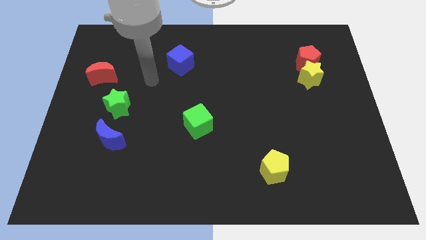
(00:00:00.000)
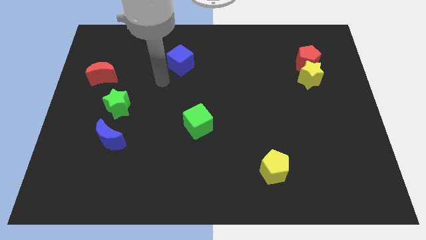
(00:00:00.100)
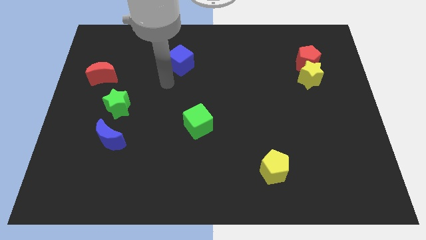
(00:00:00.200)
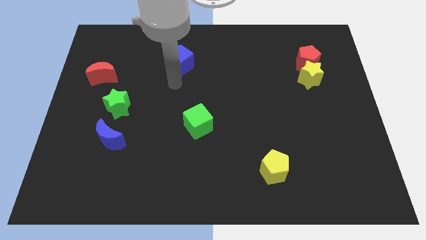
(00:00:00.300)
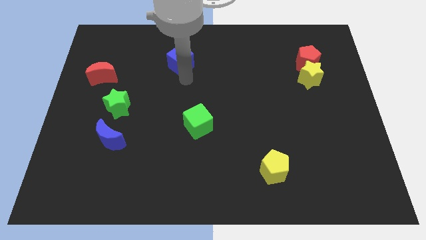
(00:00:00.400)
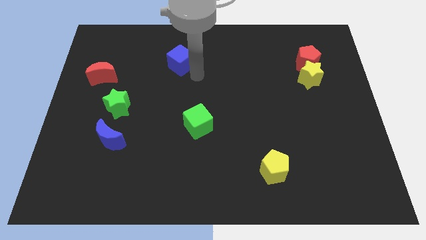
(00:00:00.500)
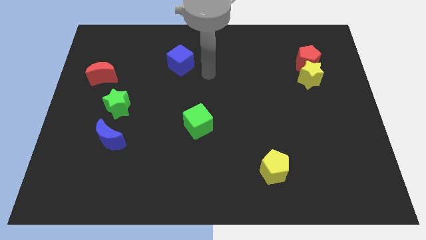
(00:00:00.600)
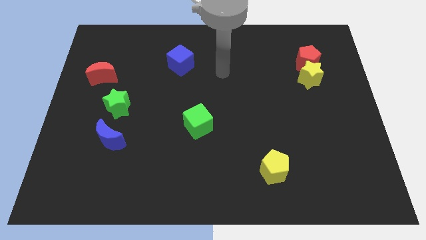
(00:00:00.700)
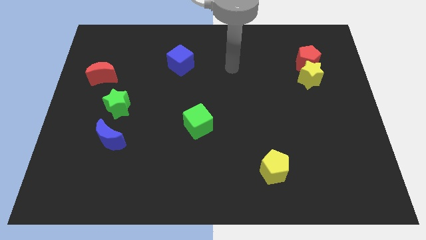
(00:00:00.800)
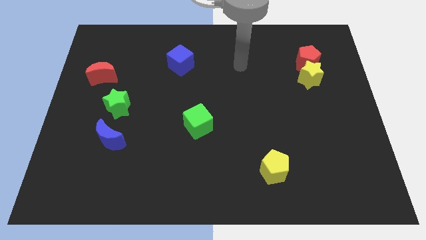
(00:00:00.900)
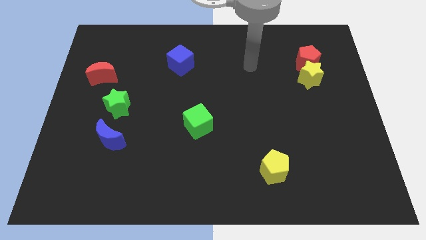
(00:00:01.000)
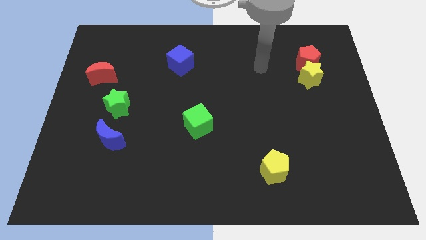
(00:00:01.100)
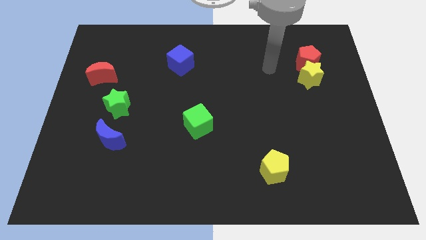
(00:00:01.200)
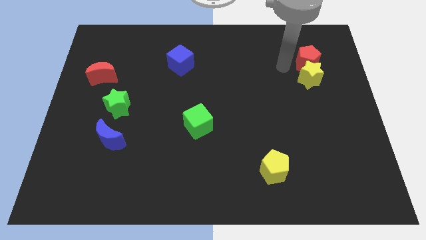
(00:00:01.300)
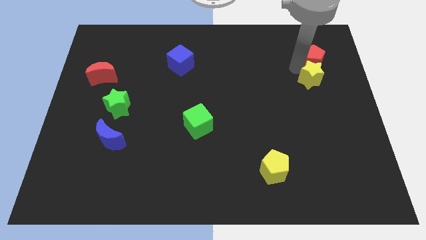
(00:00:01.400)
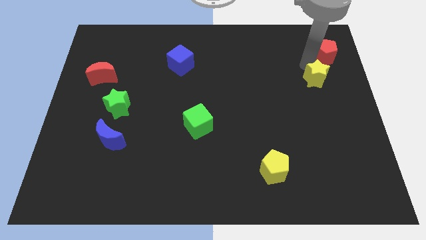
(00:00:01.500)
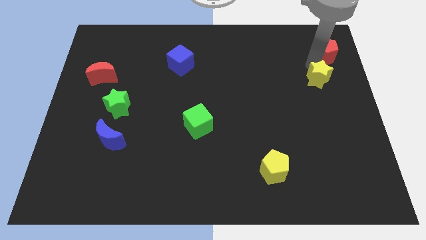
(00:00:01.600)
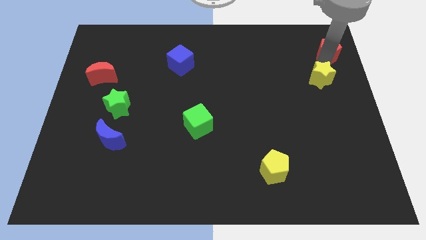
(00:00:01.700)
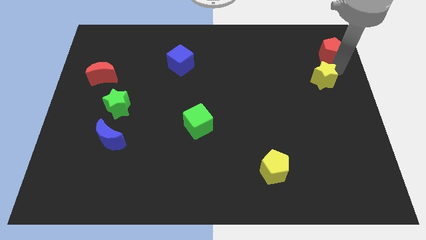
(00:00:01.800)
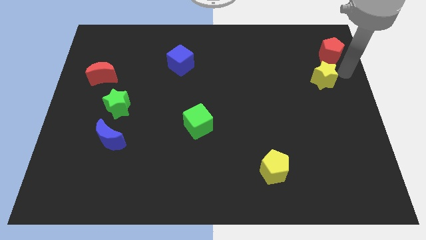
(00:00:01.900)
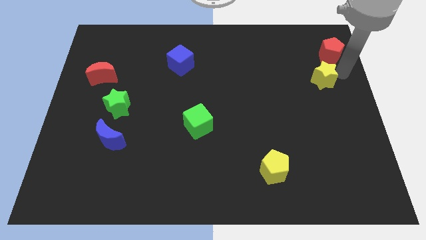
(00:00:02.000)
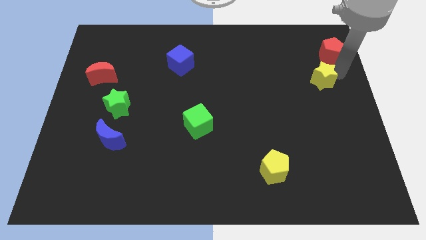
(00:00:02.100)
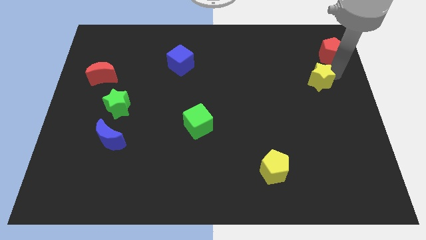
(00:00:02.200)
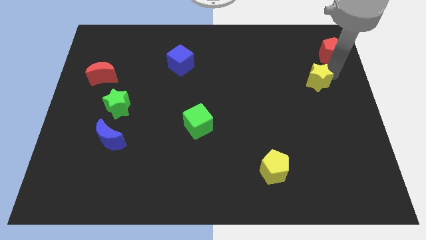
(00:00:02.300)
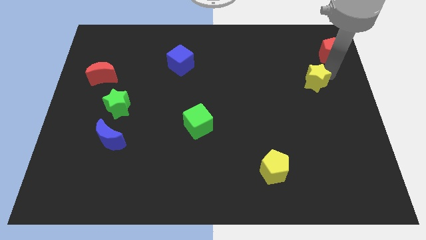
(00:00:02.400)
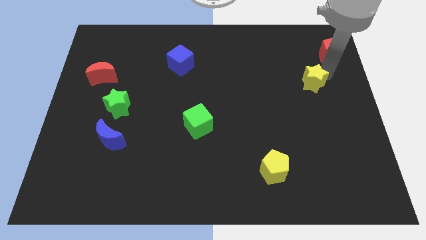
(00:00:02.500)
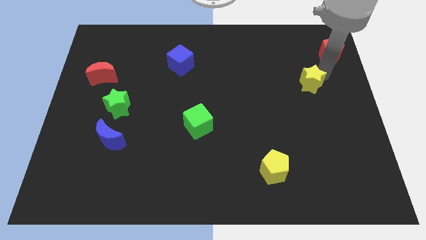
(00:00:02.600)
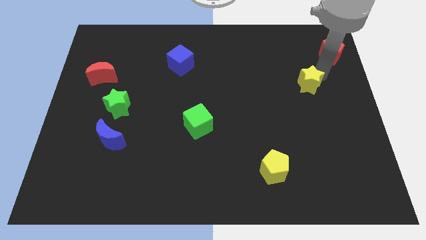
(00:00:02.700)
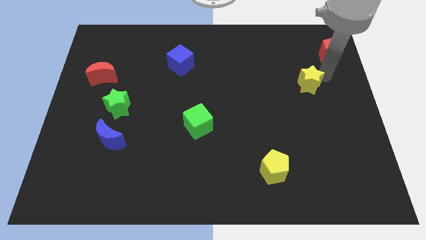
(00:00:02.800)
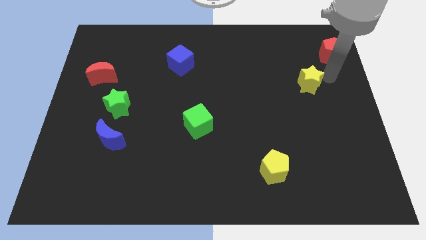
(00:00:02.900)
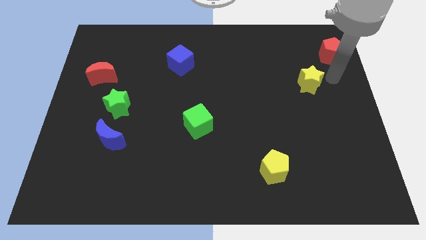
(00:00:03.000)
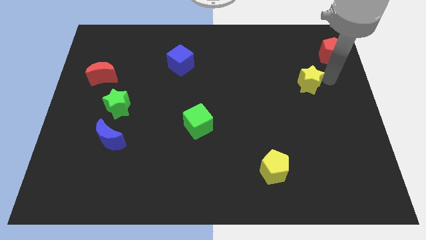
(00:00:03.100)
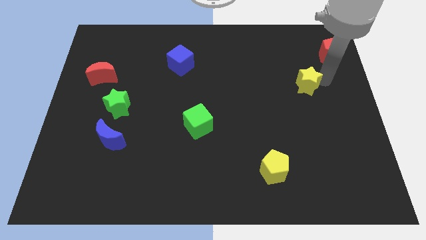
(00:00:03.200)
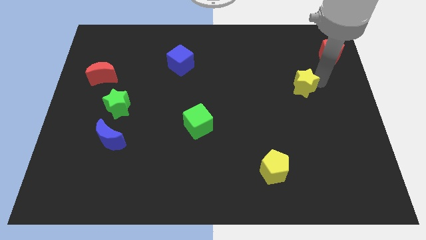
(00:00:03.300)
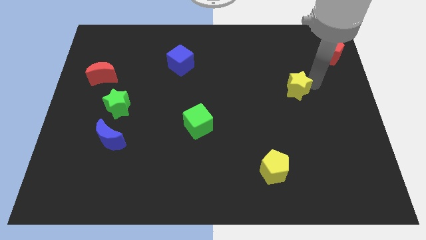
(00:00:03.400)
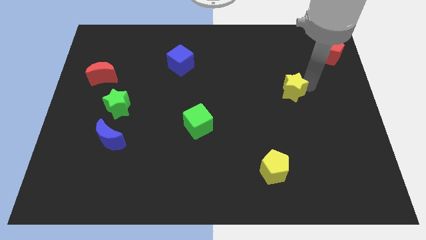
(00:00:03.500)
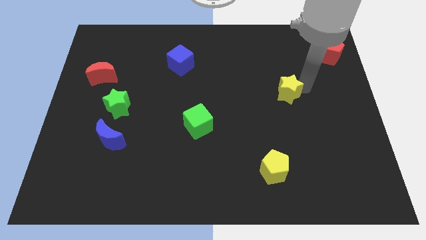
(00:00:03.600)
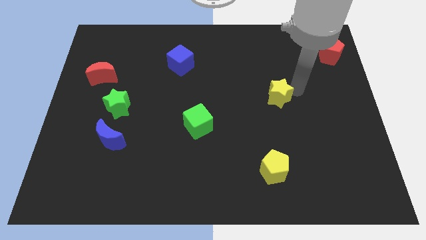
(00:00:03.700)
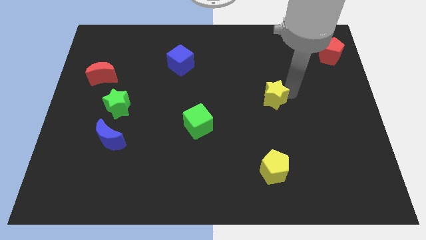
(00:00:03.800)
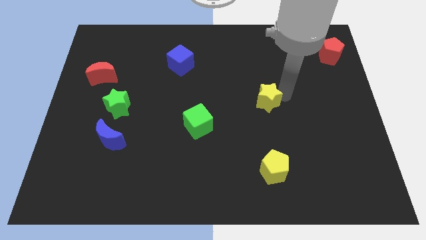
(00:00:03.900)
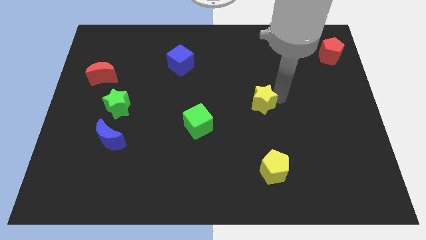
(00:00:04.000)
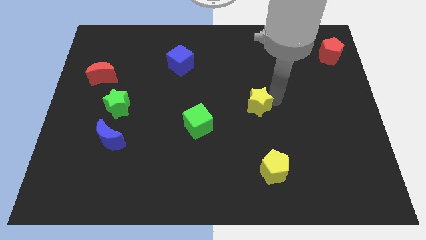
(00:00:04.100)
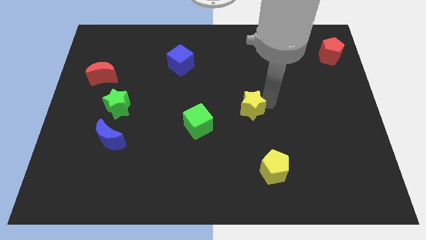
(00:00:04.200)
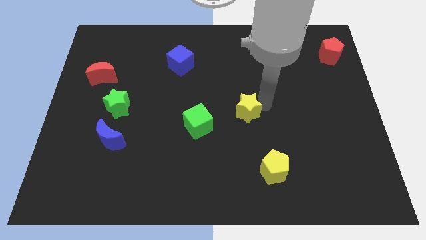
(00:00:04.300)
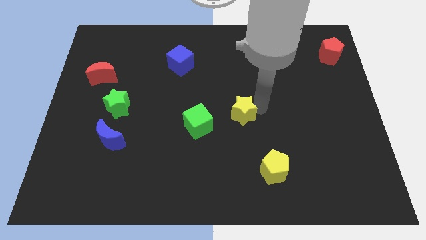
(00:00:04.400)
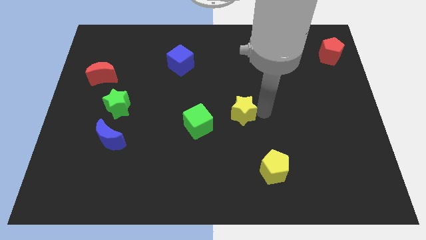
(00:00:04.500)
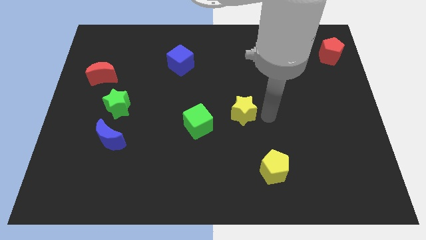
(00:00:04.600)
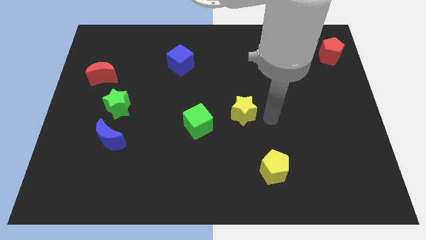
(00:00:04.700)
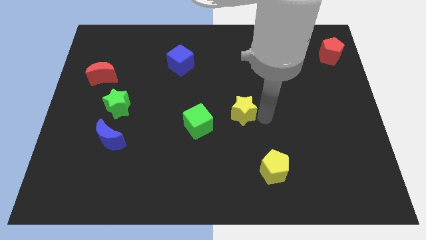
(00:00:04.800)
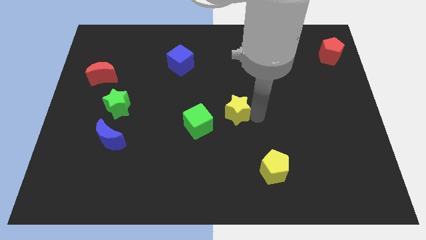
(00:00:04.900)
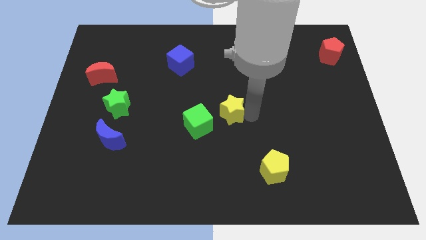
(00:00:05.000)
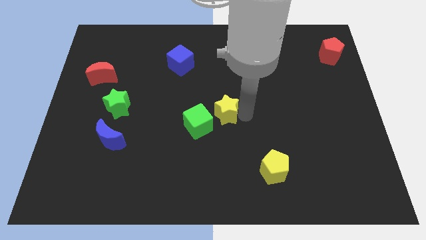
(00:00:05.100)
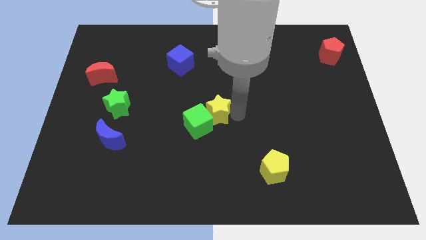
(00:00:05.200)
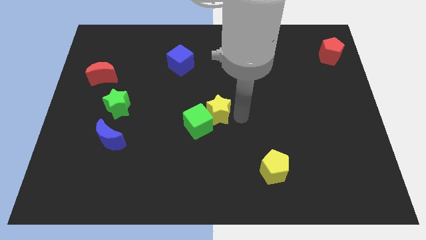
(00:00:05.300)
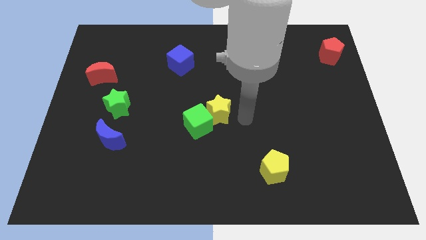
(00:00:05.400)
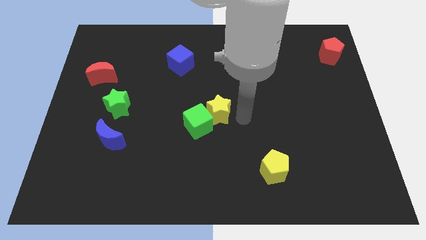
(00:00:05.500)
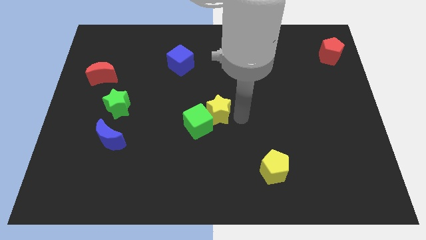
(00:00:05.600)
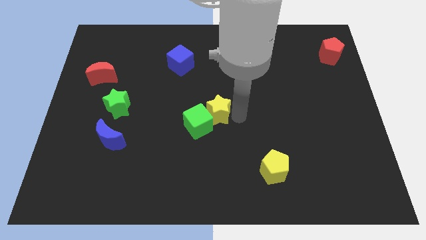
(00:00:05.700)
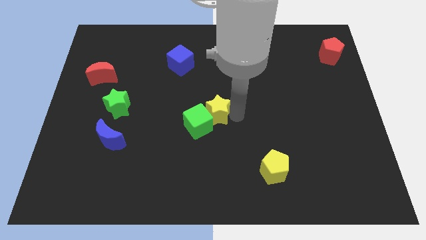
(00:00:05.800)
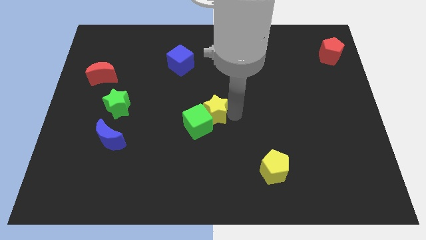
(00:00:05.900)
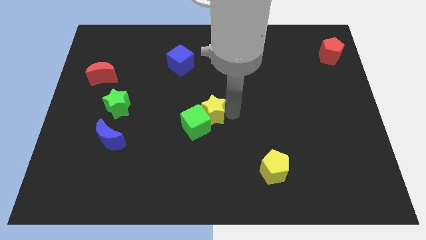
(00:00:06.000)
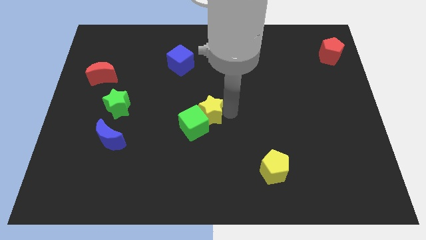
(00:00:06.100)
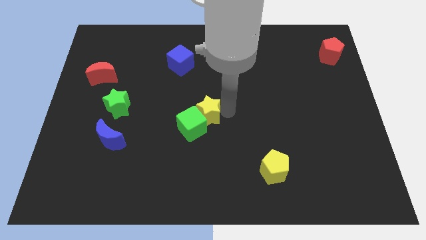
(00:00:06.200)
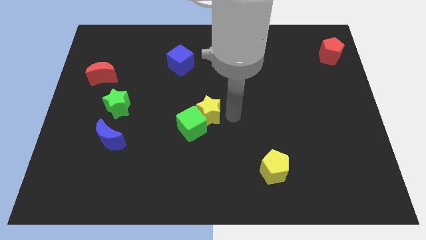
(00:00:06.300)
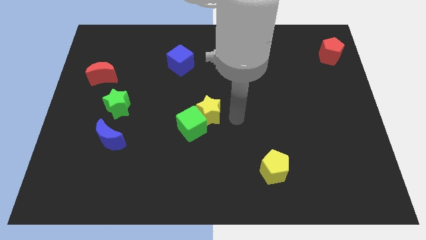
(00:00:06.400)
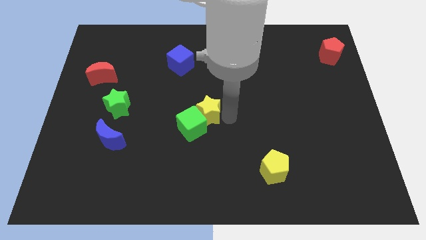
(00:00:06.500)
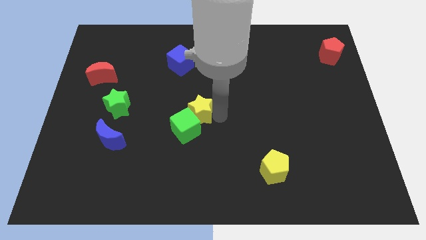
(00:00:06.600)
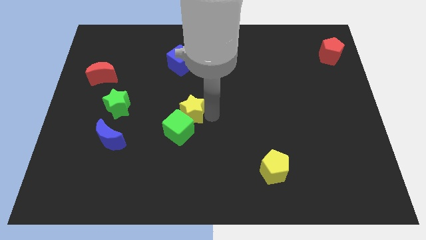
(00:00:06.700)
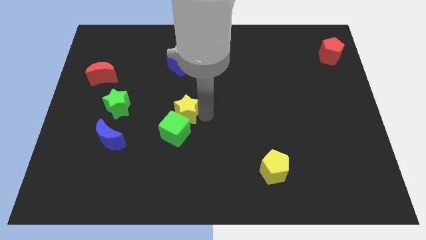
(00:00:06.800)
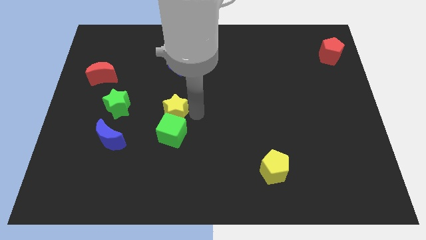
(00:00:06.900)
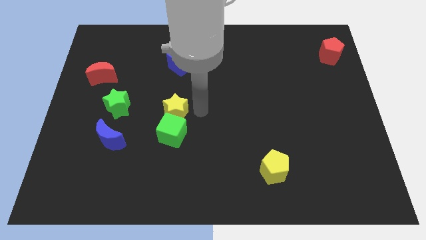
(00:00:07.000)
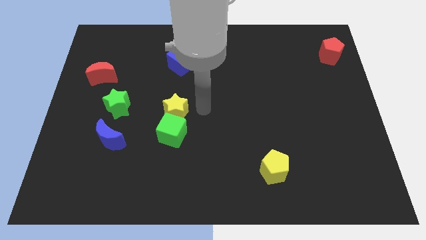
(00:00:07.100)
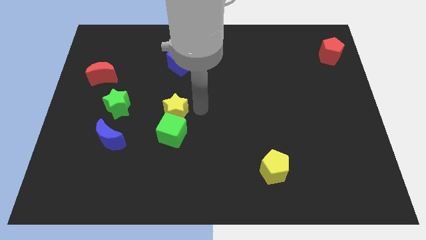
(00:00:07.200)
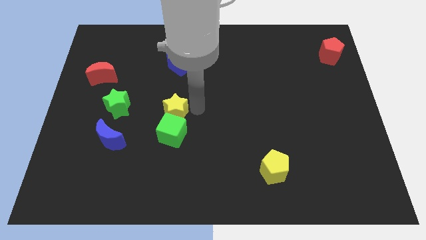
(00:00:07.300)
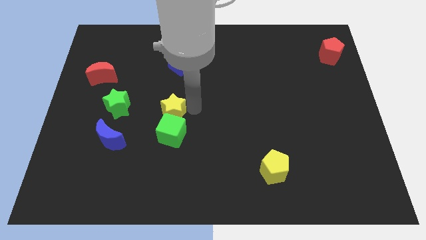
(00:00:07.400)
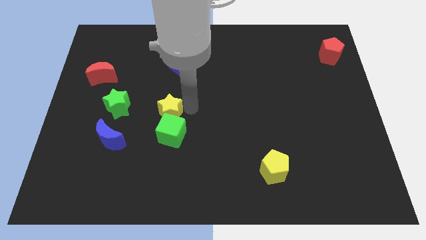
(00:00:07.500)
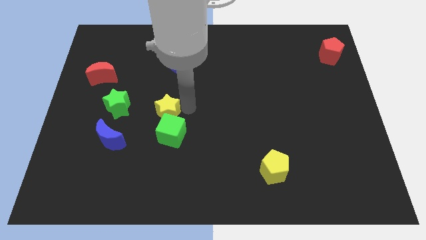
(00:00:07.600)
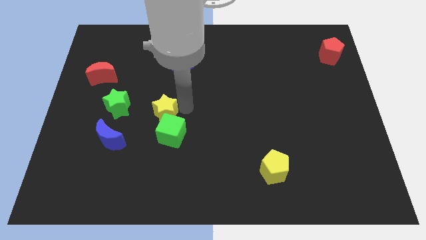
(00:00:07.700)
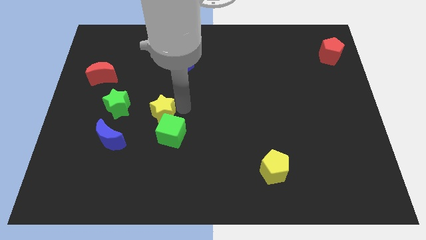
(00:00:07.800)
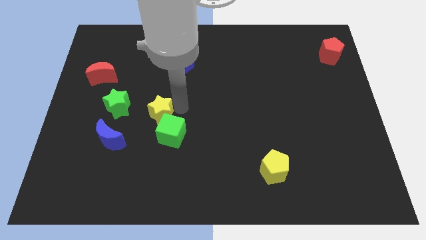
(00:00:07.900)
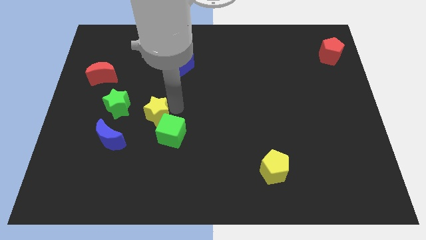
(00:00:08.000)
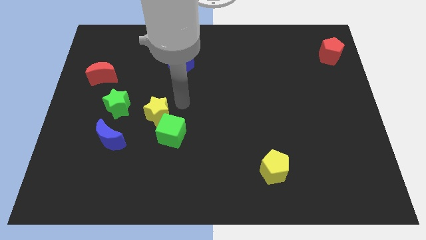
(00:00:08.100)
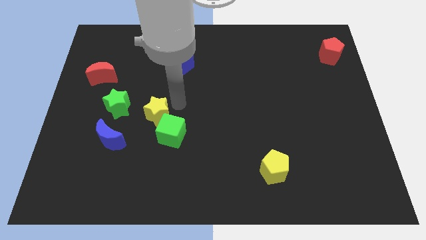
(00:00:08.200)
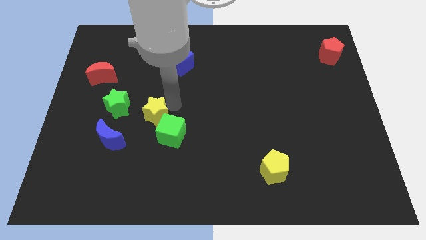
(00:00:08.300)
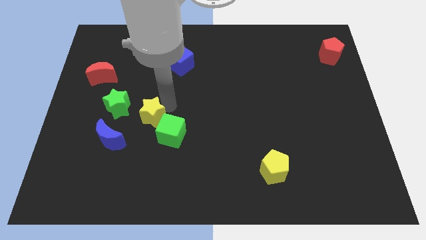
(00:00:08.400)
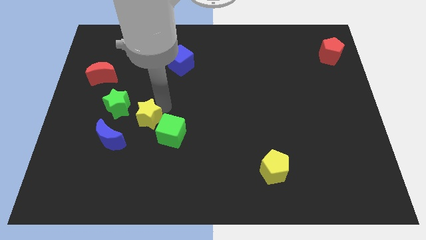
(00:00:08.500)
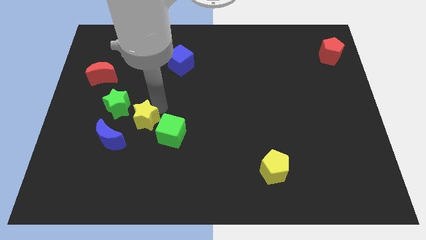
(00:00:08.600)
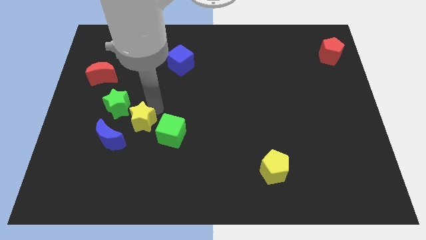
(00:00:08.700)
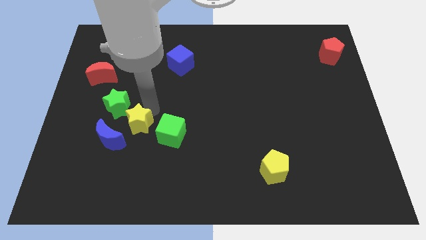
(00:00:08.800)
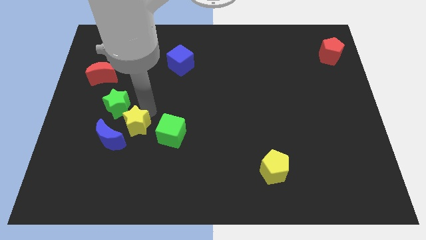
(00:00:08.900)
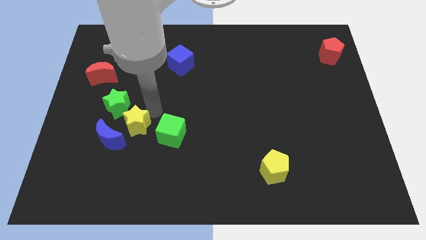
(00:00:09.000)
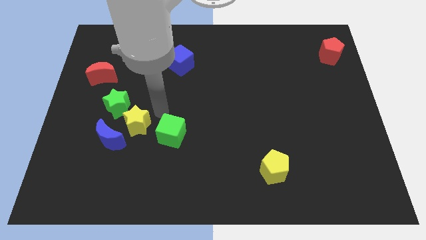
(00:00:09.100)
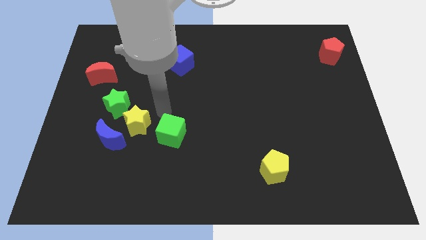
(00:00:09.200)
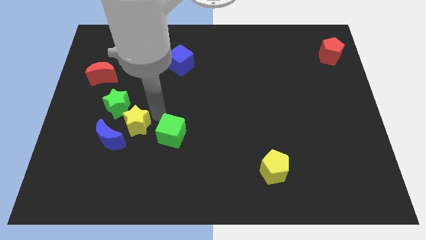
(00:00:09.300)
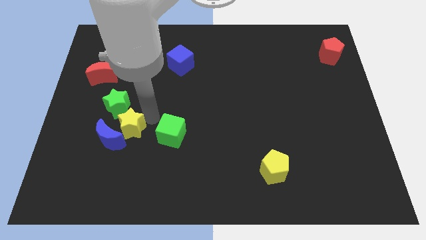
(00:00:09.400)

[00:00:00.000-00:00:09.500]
push the yellow star towards the blue moon
